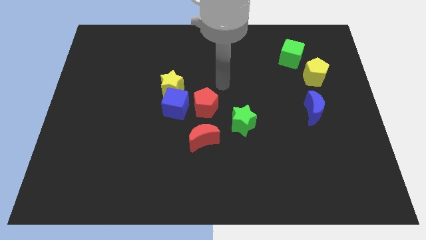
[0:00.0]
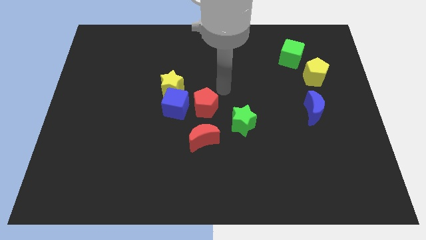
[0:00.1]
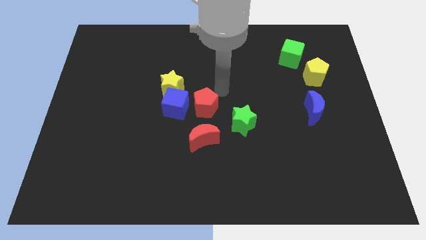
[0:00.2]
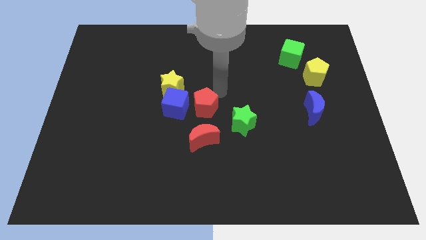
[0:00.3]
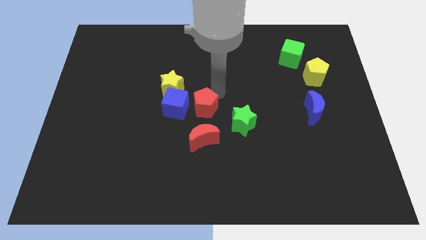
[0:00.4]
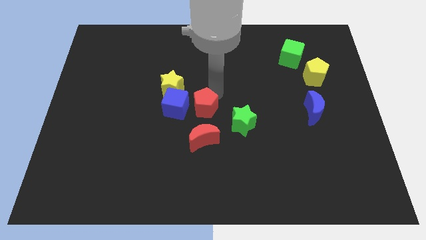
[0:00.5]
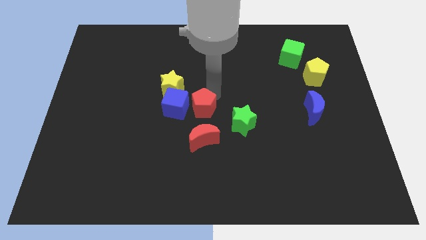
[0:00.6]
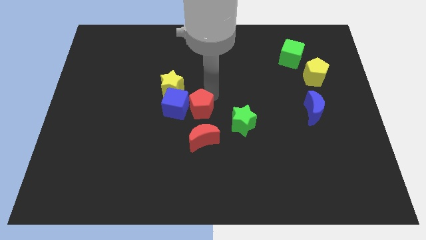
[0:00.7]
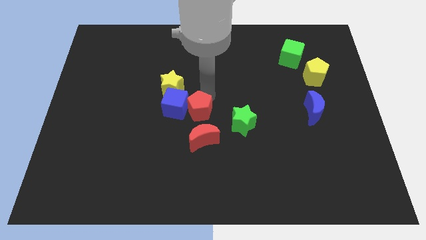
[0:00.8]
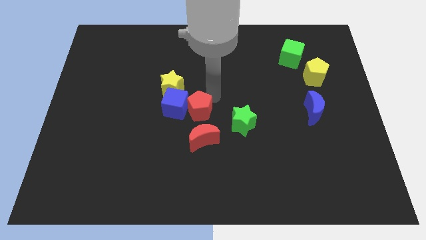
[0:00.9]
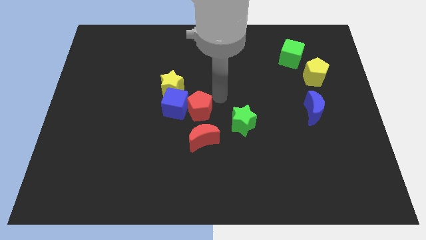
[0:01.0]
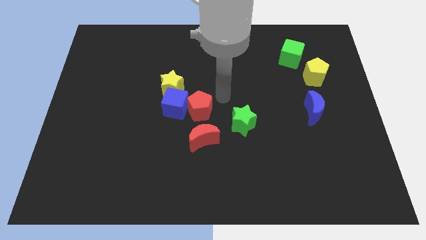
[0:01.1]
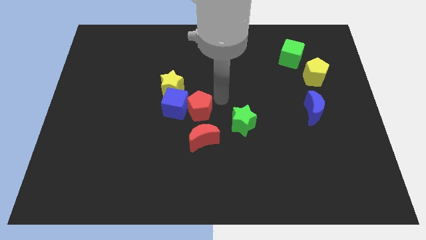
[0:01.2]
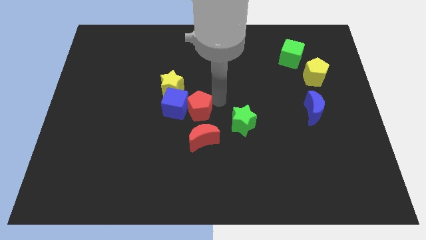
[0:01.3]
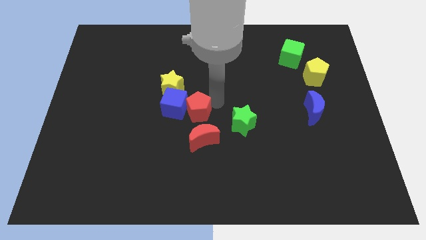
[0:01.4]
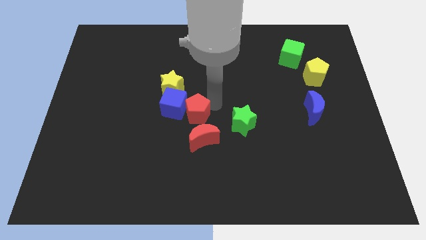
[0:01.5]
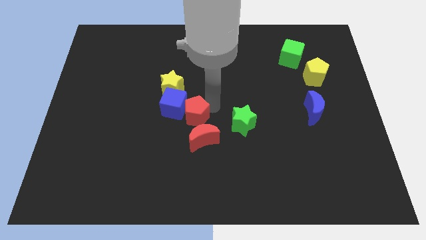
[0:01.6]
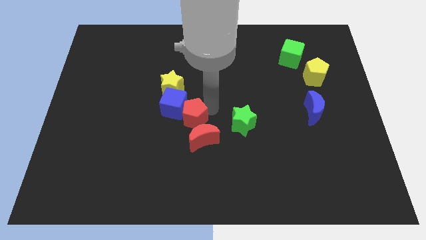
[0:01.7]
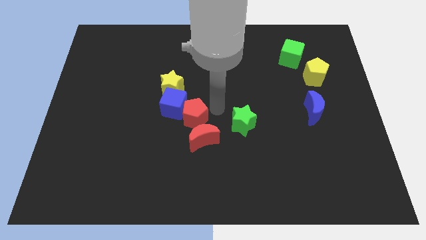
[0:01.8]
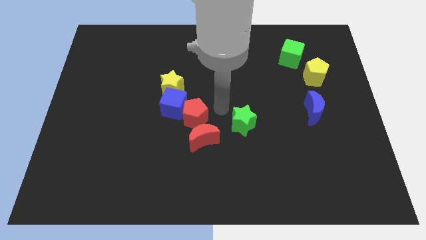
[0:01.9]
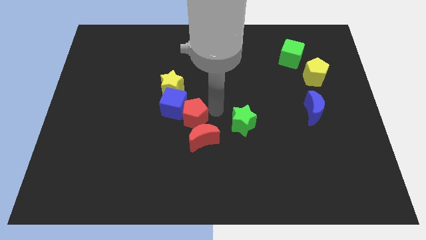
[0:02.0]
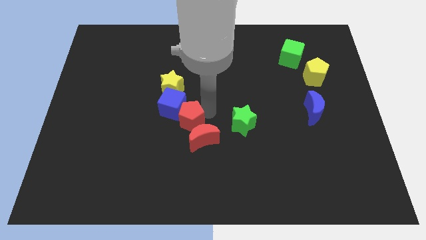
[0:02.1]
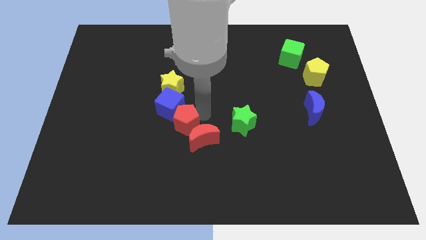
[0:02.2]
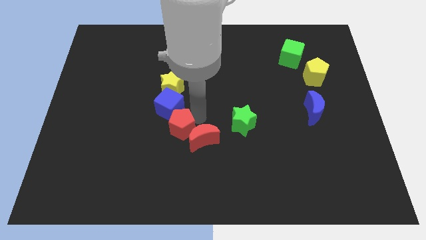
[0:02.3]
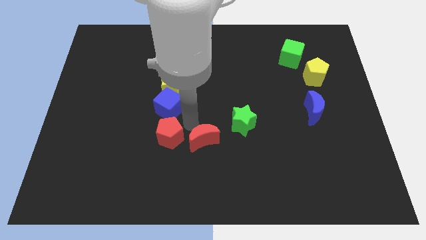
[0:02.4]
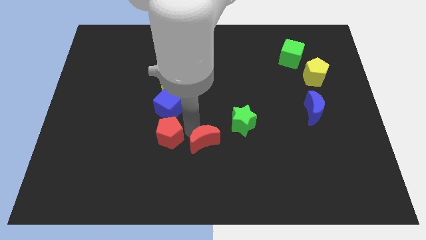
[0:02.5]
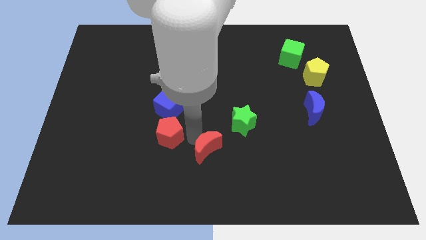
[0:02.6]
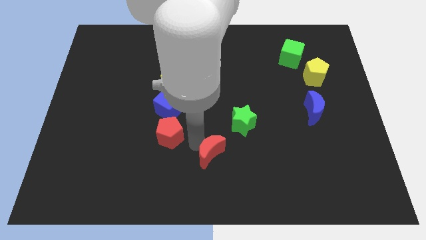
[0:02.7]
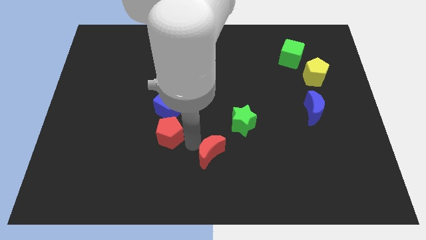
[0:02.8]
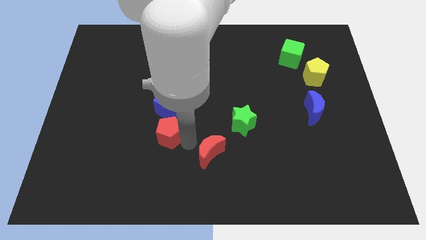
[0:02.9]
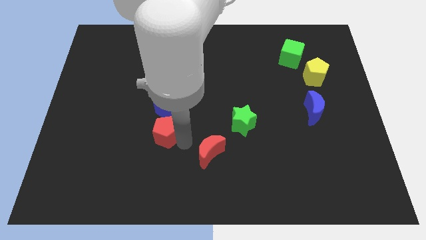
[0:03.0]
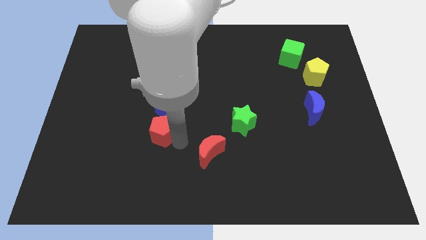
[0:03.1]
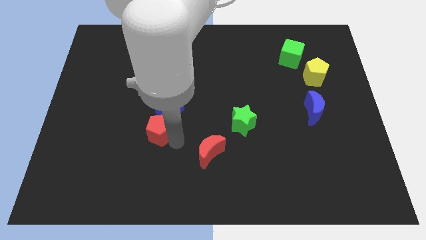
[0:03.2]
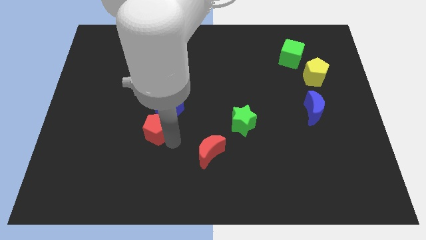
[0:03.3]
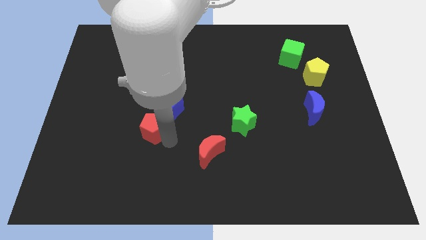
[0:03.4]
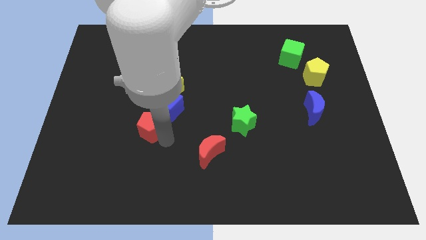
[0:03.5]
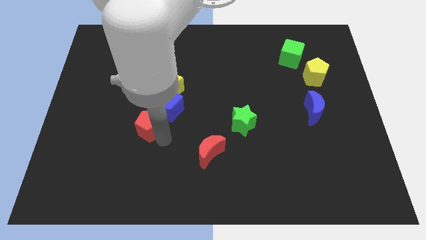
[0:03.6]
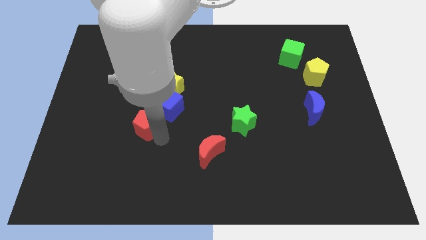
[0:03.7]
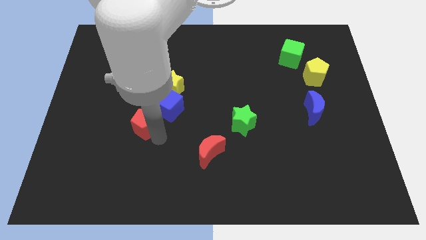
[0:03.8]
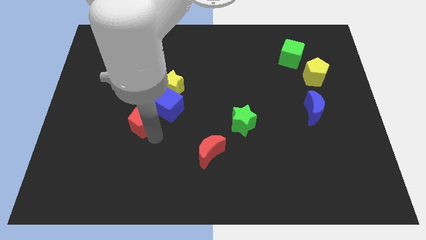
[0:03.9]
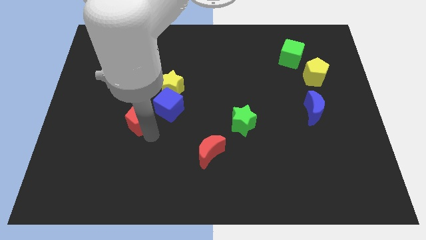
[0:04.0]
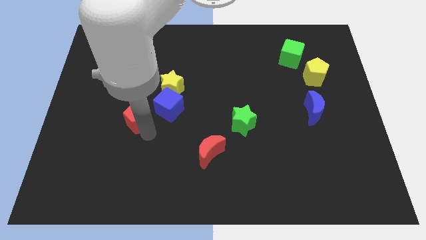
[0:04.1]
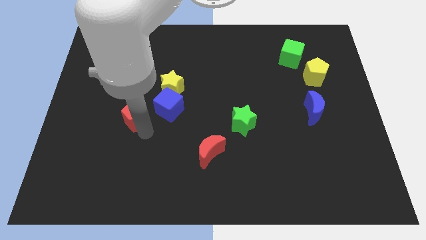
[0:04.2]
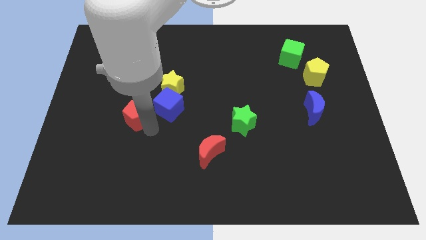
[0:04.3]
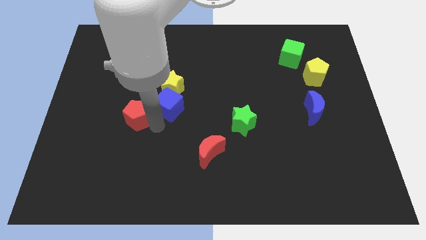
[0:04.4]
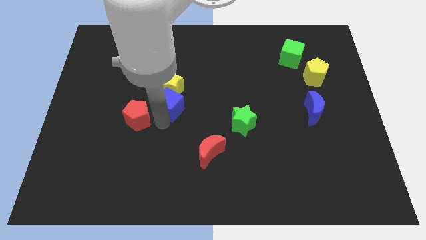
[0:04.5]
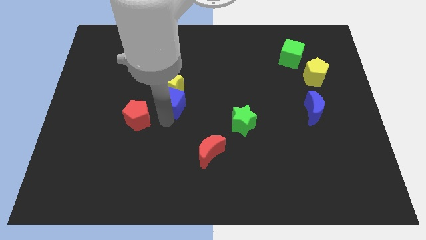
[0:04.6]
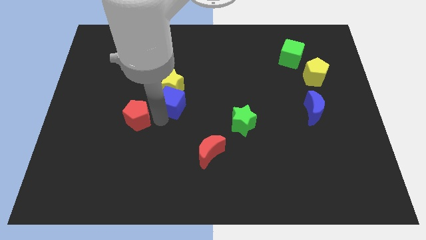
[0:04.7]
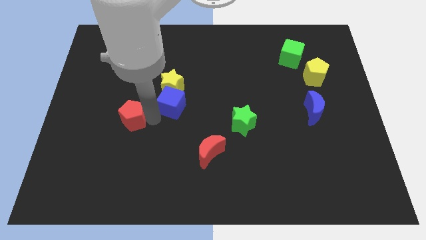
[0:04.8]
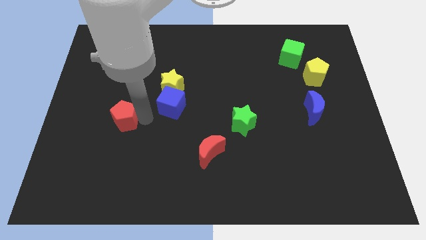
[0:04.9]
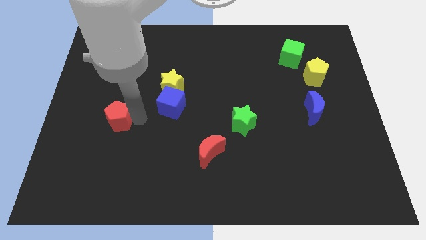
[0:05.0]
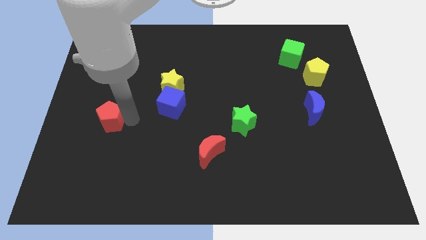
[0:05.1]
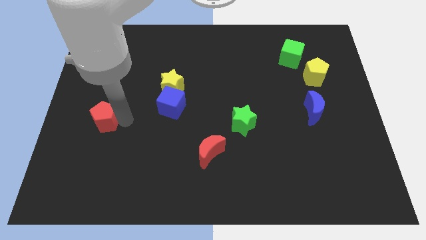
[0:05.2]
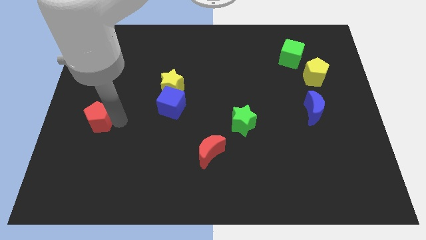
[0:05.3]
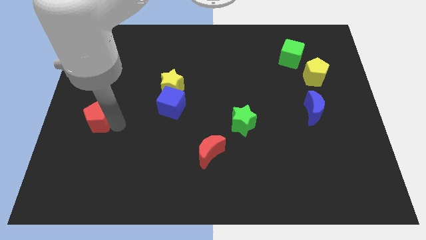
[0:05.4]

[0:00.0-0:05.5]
push the red pentagon to the center left

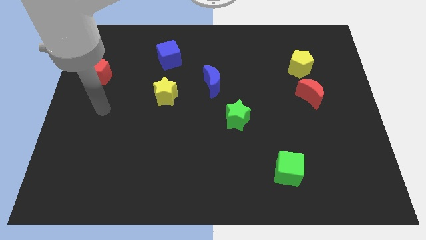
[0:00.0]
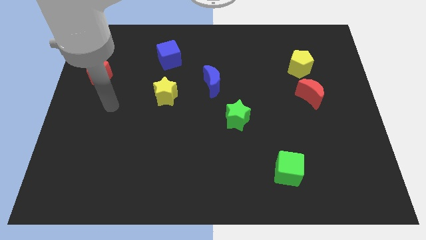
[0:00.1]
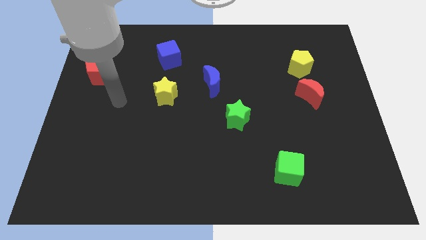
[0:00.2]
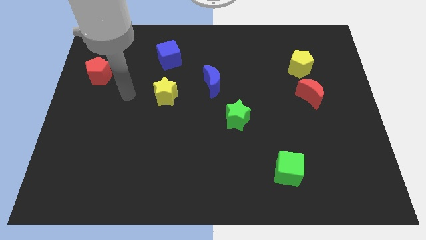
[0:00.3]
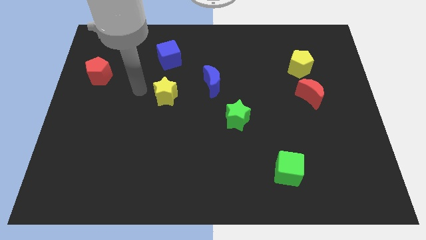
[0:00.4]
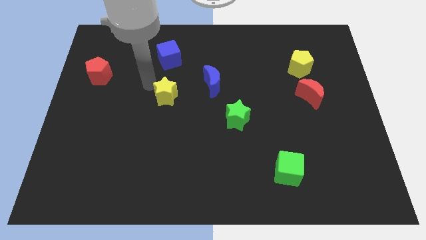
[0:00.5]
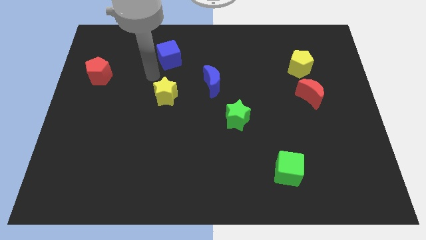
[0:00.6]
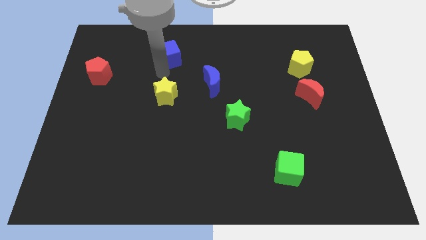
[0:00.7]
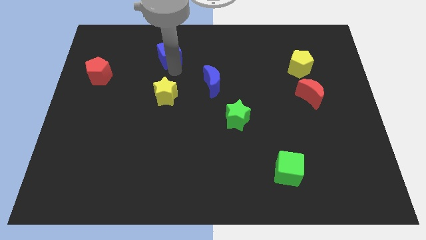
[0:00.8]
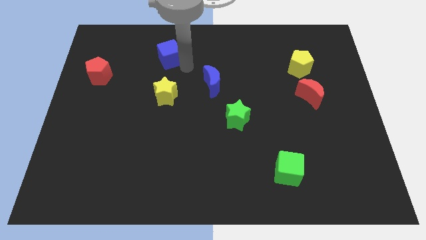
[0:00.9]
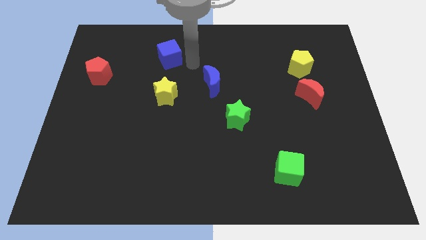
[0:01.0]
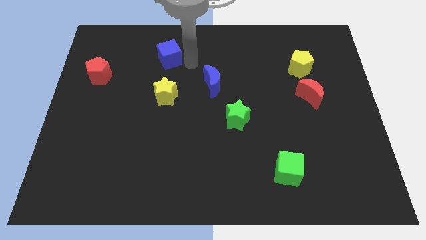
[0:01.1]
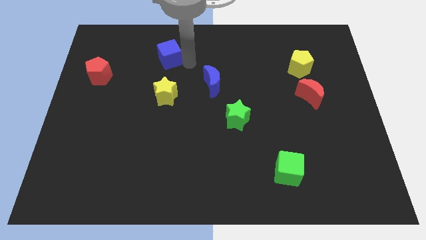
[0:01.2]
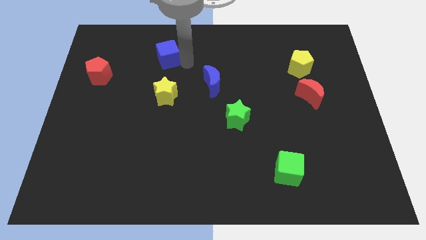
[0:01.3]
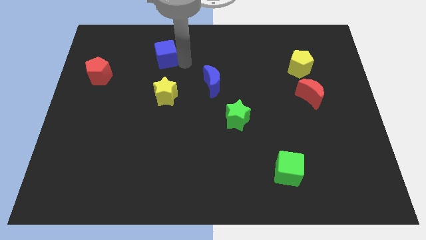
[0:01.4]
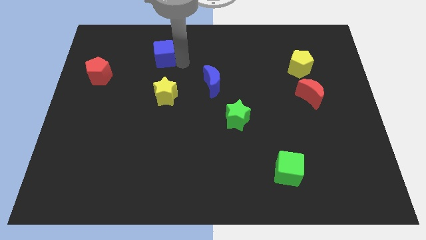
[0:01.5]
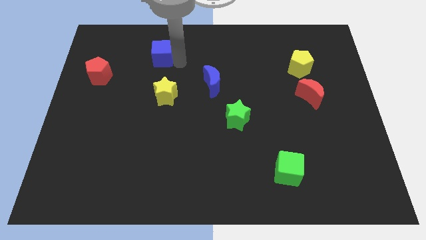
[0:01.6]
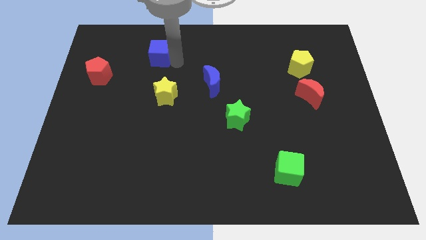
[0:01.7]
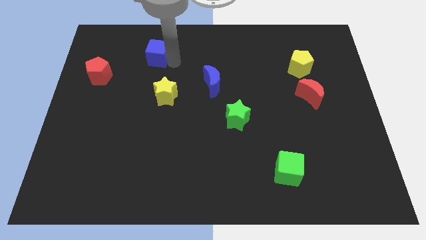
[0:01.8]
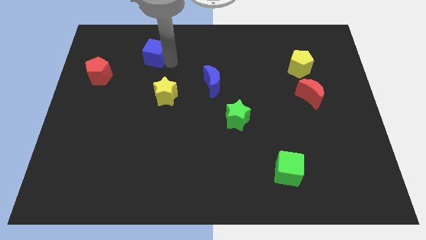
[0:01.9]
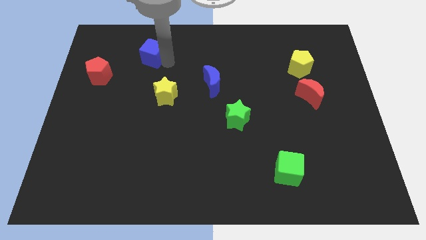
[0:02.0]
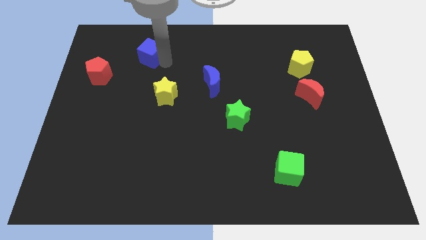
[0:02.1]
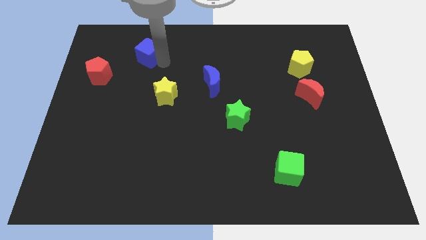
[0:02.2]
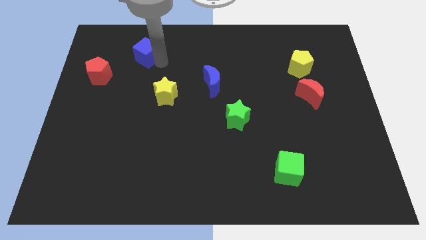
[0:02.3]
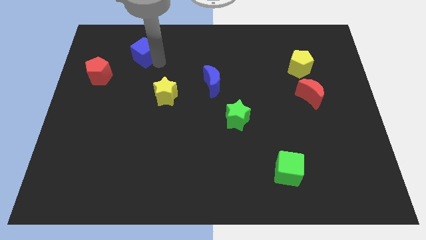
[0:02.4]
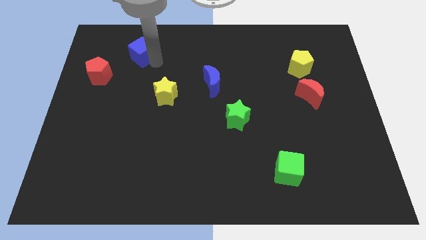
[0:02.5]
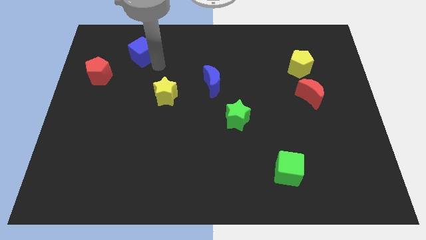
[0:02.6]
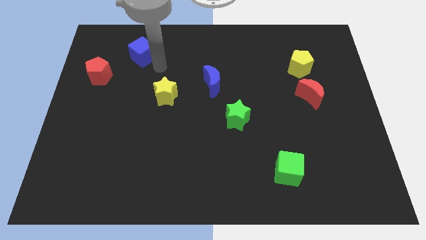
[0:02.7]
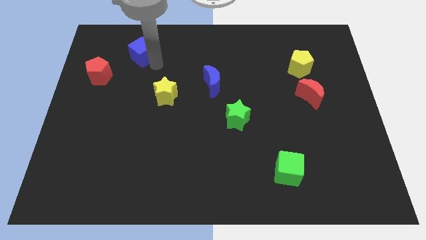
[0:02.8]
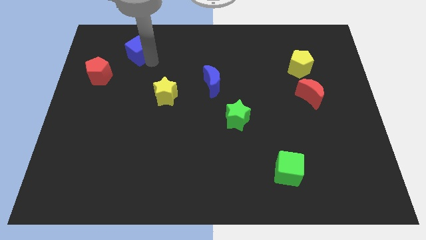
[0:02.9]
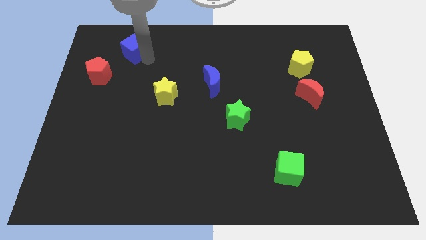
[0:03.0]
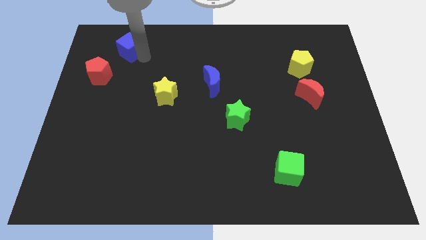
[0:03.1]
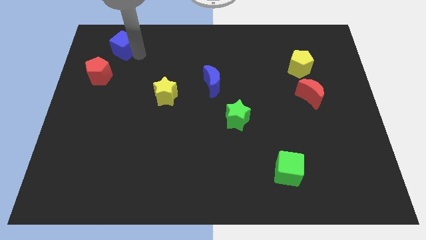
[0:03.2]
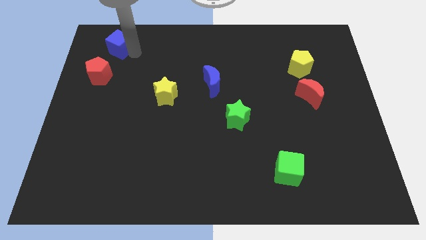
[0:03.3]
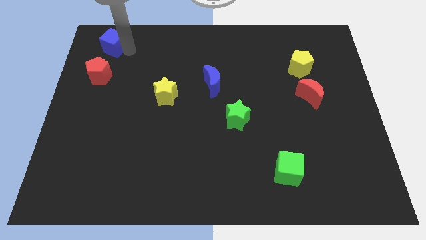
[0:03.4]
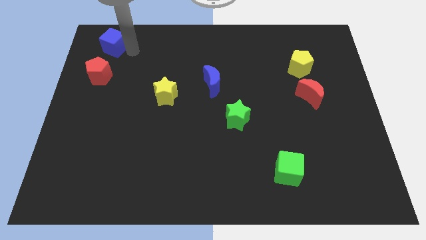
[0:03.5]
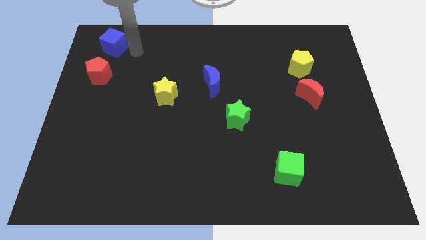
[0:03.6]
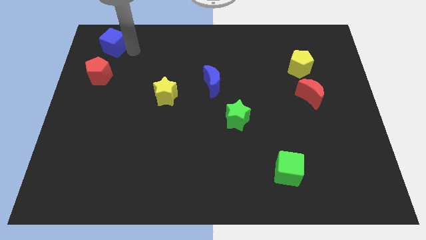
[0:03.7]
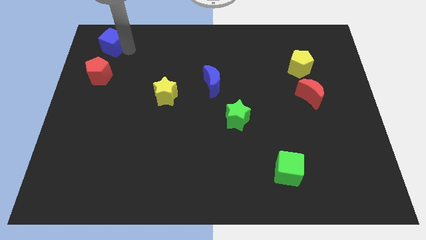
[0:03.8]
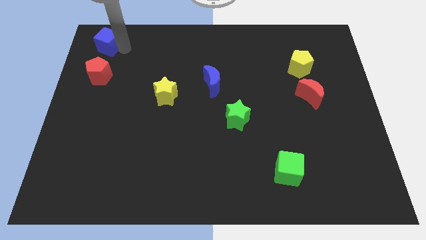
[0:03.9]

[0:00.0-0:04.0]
move the blue cube to the upper left corner
